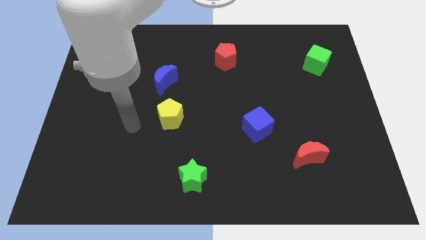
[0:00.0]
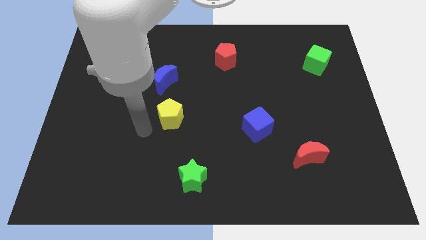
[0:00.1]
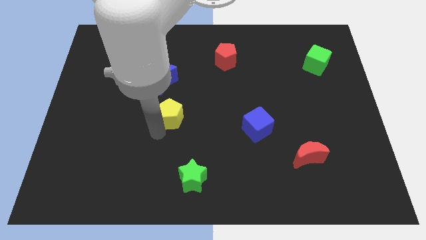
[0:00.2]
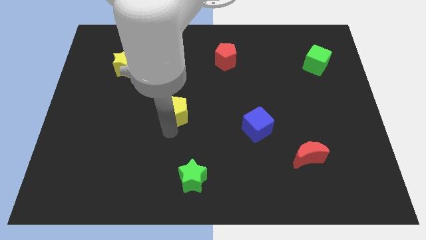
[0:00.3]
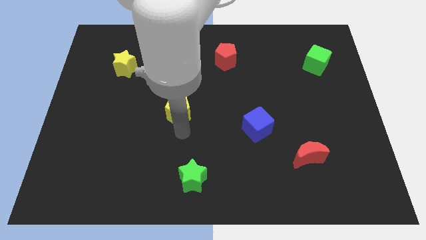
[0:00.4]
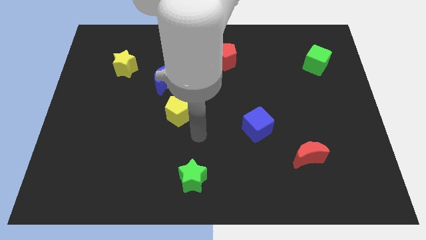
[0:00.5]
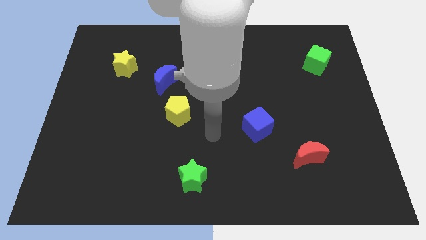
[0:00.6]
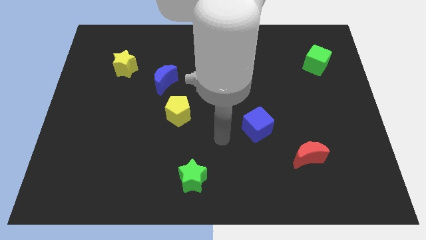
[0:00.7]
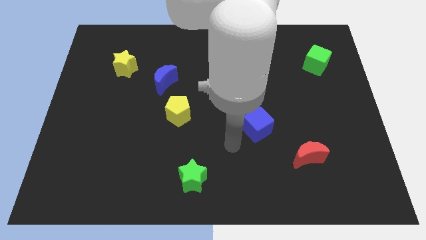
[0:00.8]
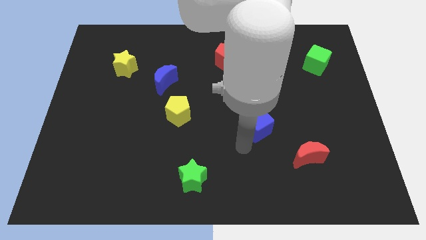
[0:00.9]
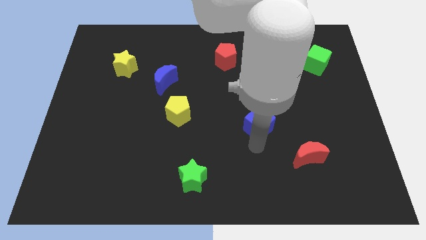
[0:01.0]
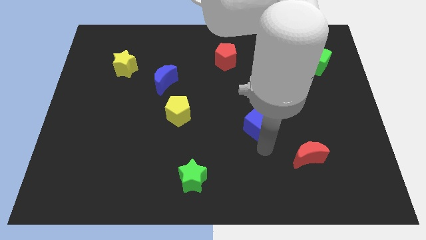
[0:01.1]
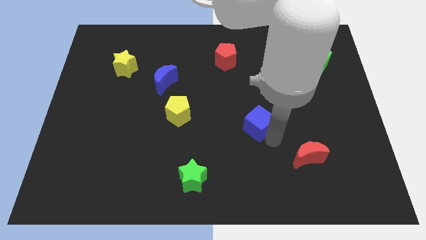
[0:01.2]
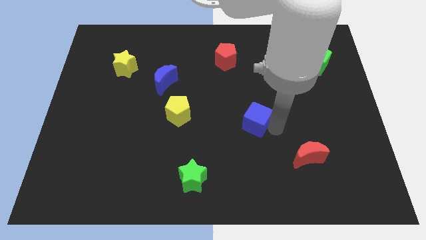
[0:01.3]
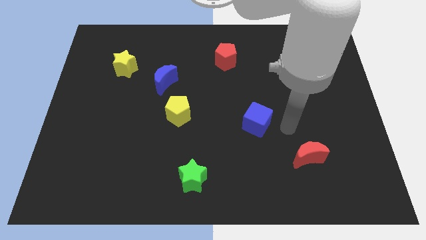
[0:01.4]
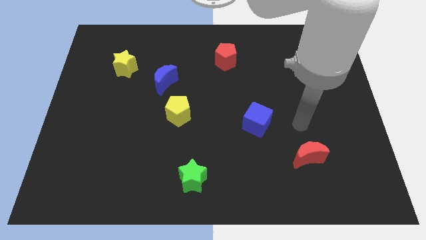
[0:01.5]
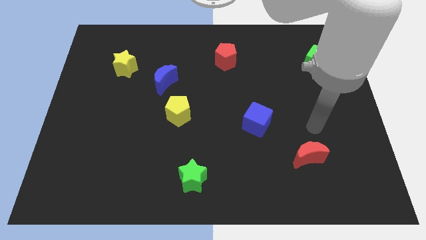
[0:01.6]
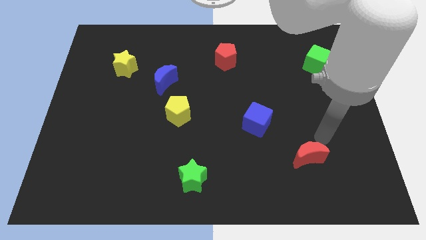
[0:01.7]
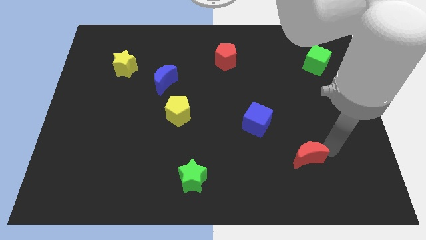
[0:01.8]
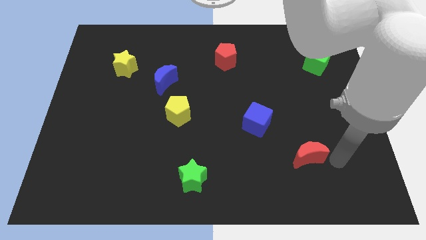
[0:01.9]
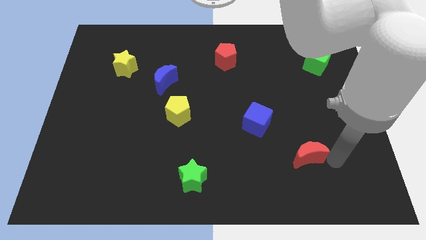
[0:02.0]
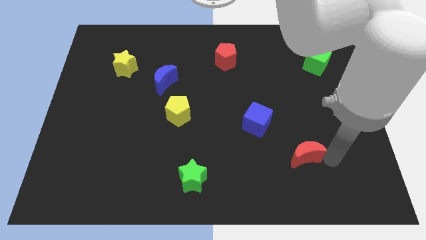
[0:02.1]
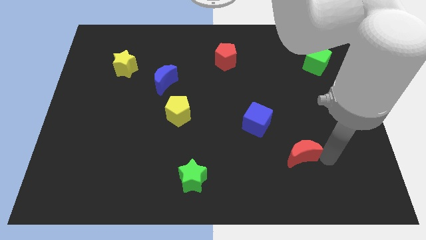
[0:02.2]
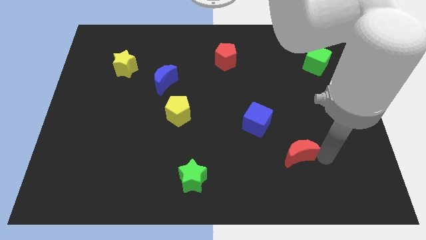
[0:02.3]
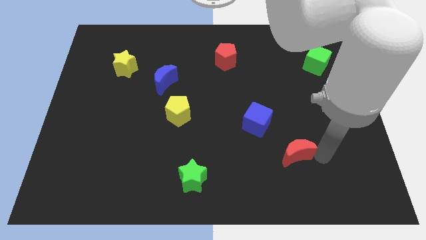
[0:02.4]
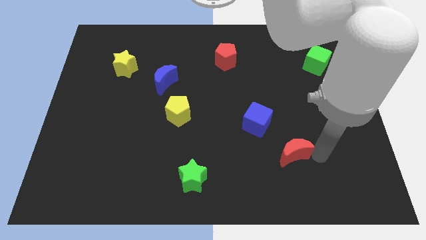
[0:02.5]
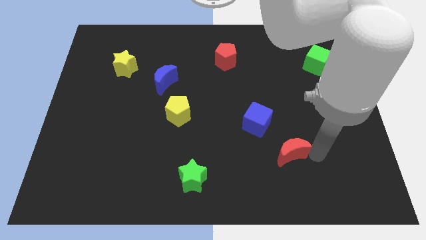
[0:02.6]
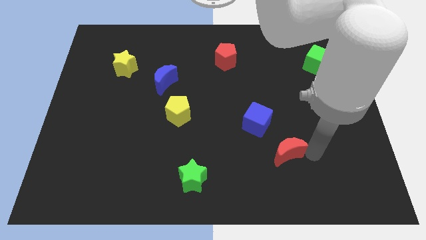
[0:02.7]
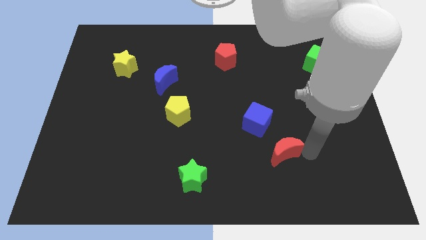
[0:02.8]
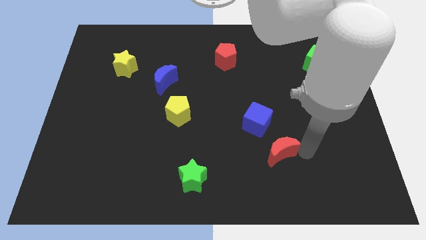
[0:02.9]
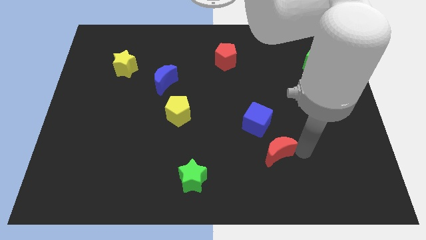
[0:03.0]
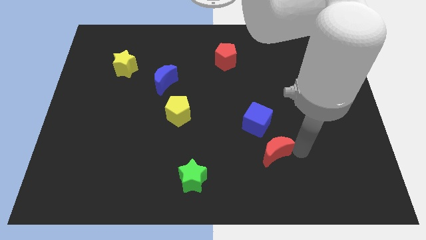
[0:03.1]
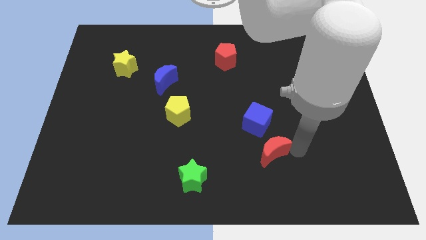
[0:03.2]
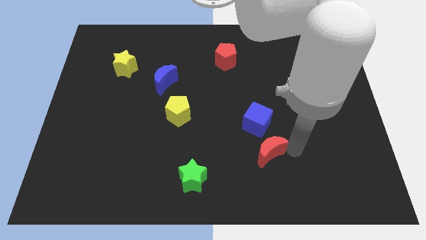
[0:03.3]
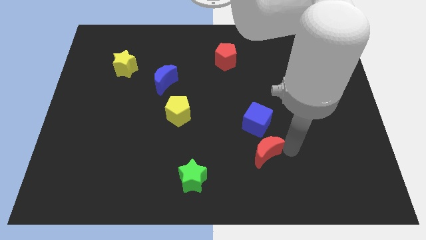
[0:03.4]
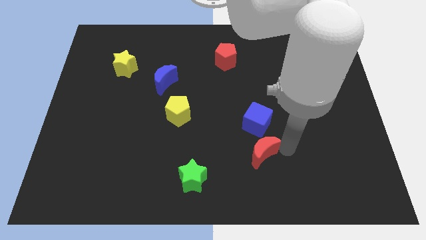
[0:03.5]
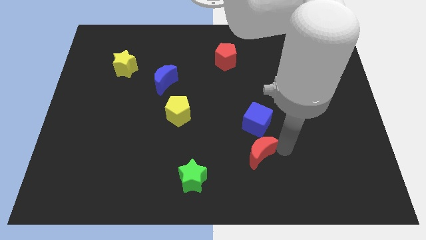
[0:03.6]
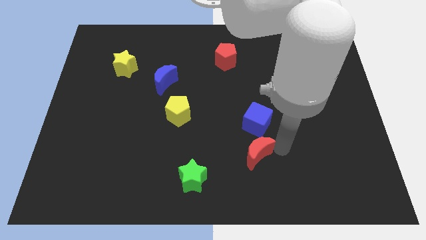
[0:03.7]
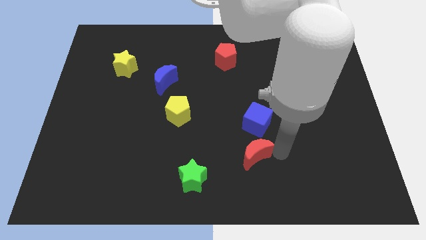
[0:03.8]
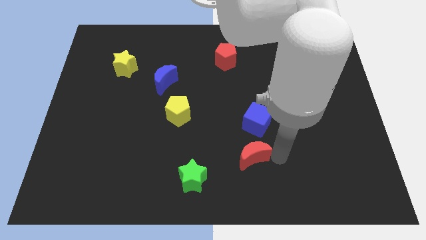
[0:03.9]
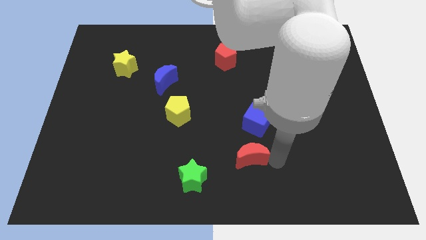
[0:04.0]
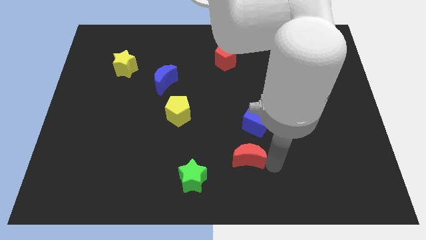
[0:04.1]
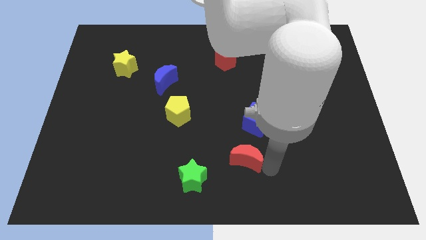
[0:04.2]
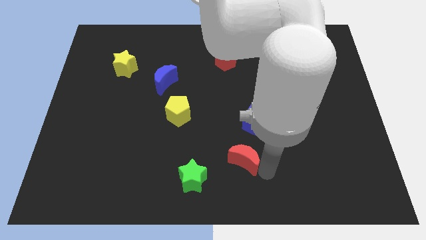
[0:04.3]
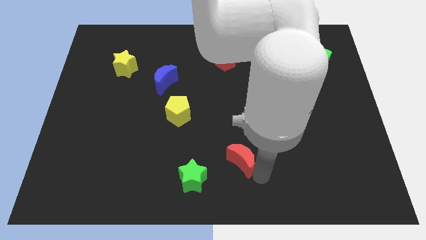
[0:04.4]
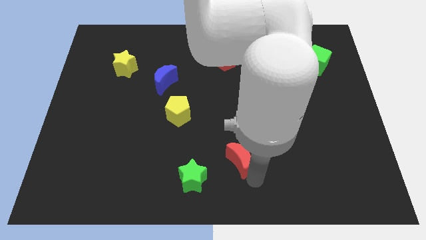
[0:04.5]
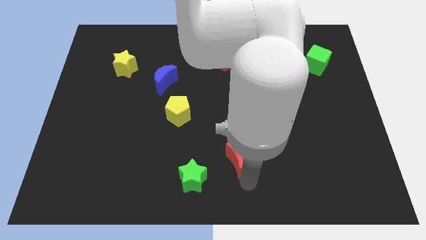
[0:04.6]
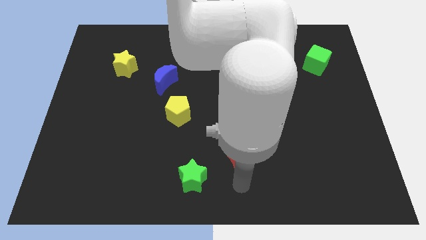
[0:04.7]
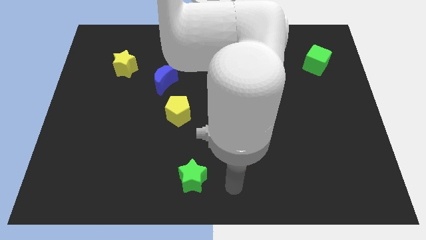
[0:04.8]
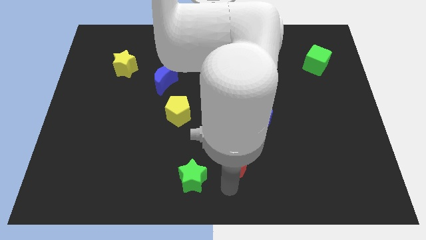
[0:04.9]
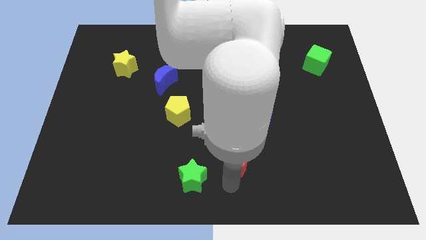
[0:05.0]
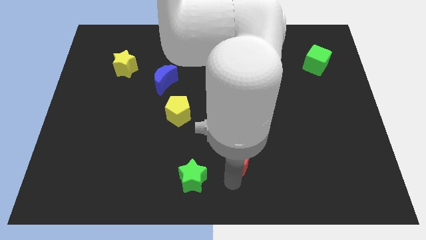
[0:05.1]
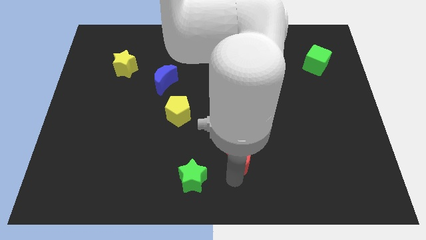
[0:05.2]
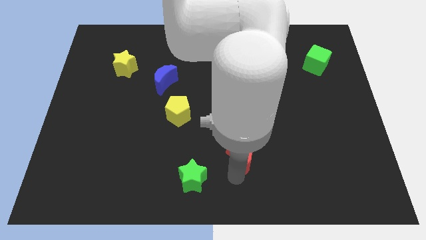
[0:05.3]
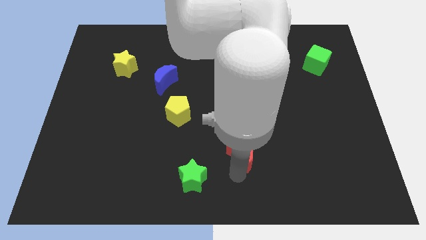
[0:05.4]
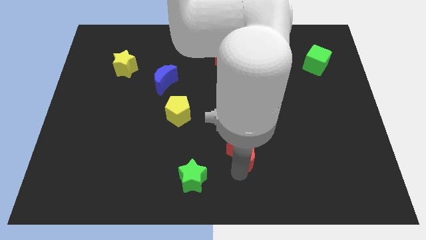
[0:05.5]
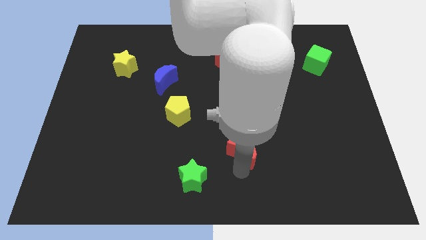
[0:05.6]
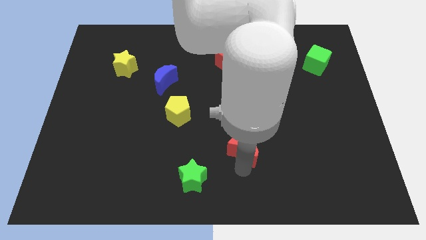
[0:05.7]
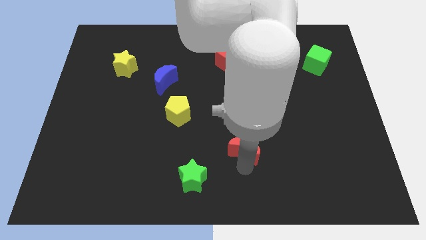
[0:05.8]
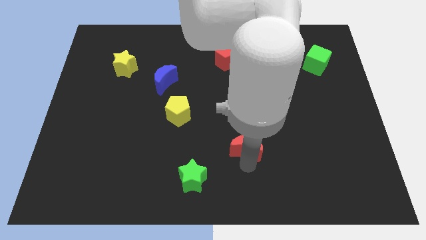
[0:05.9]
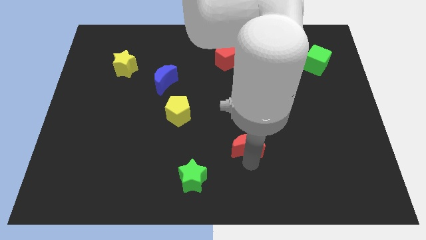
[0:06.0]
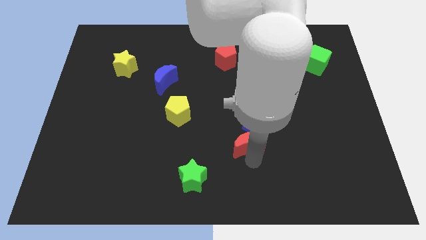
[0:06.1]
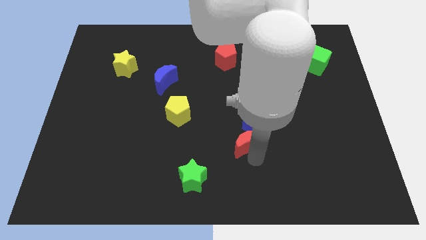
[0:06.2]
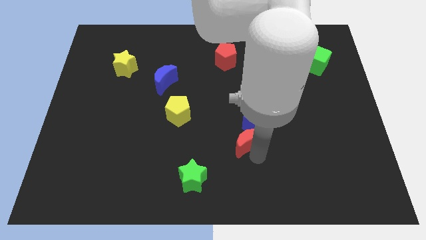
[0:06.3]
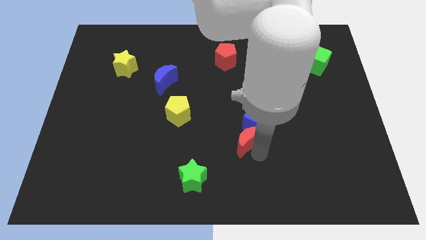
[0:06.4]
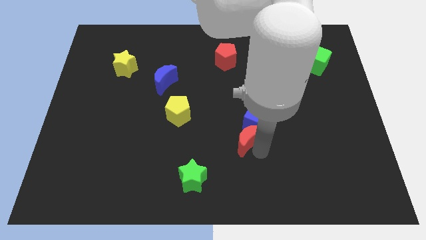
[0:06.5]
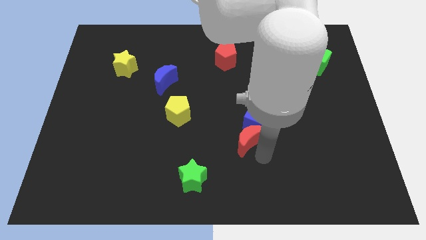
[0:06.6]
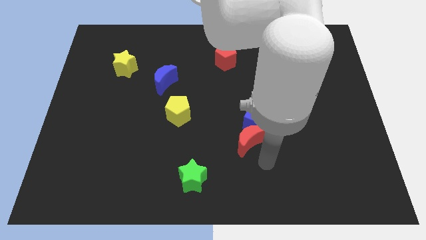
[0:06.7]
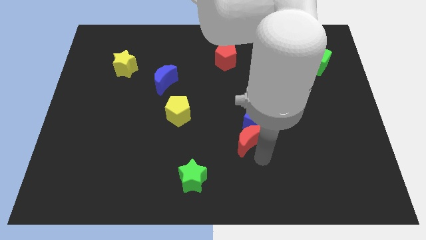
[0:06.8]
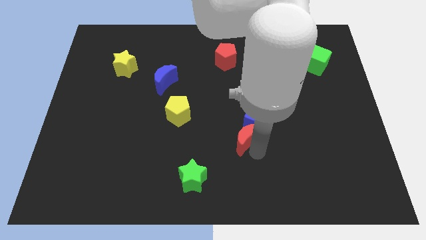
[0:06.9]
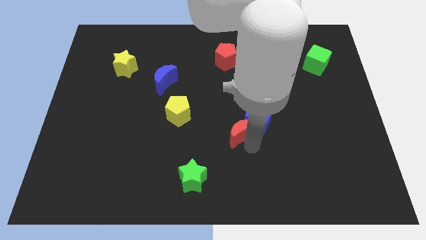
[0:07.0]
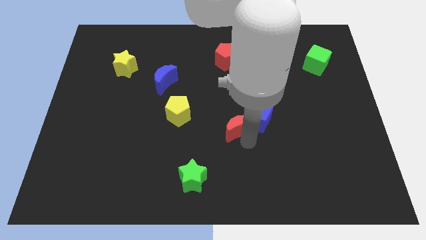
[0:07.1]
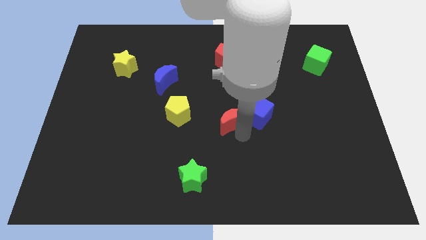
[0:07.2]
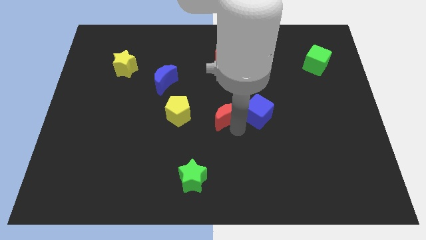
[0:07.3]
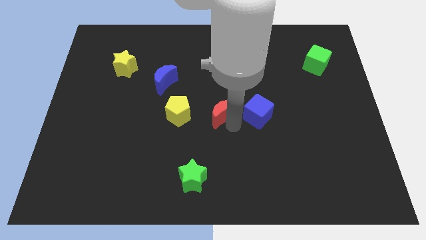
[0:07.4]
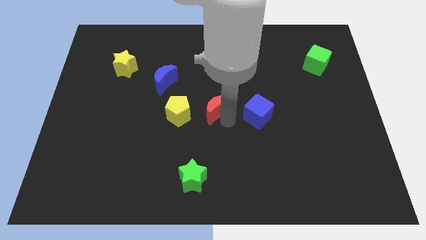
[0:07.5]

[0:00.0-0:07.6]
slide the red moon up and then left

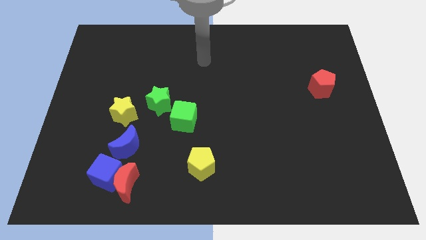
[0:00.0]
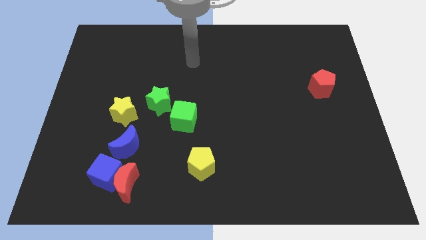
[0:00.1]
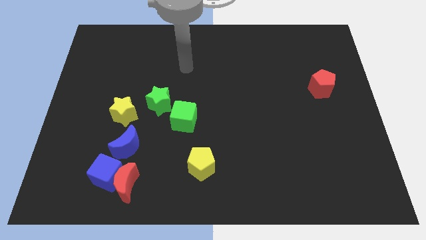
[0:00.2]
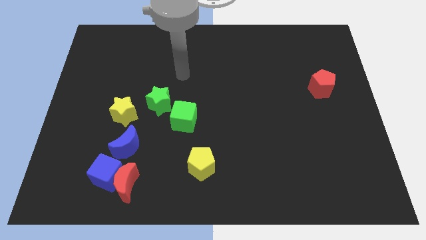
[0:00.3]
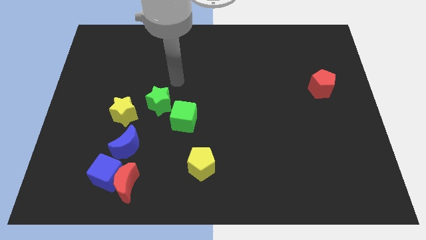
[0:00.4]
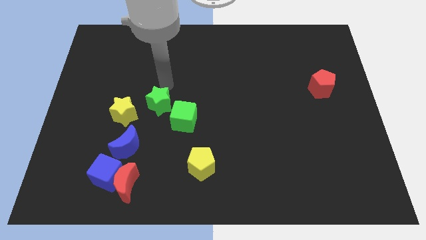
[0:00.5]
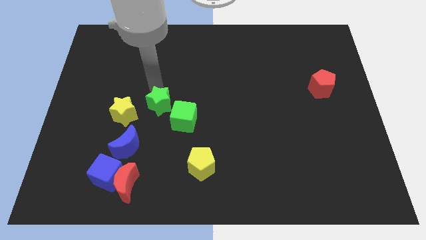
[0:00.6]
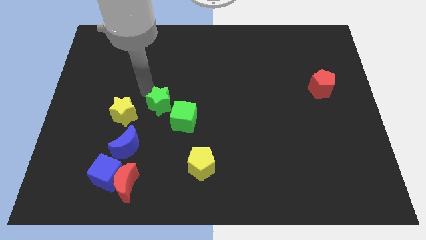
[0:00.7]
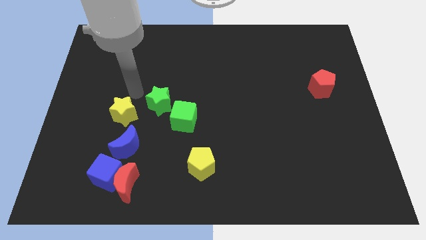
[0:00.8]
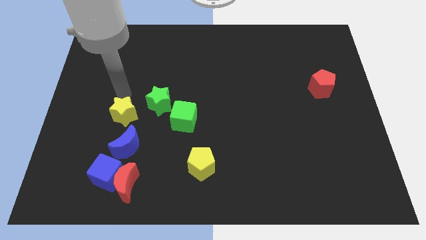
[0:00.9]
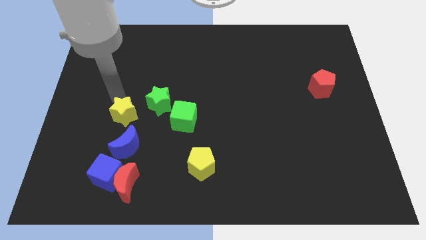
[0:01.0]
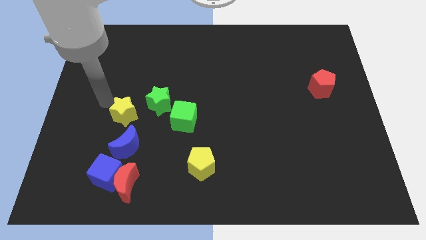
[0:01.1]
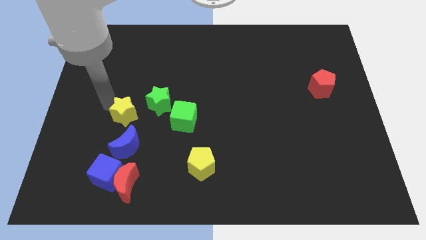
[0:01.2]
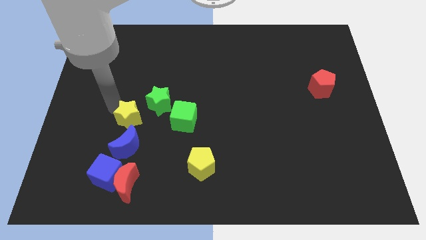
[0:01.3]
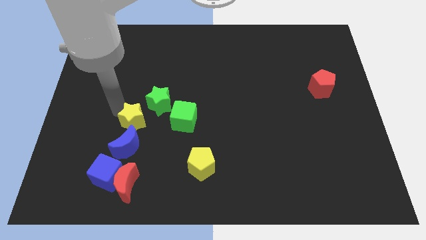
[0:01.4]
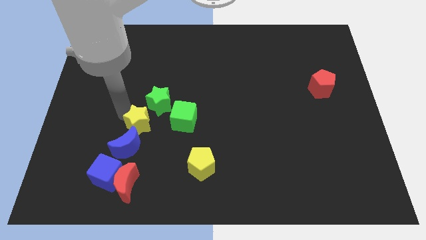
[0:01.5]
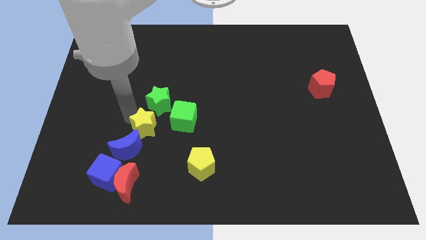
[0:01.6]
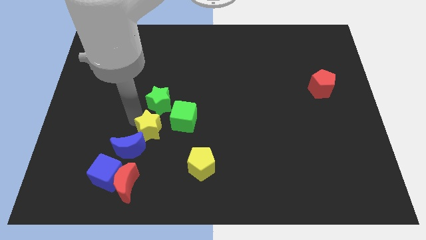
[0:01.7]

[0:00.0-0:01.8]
slide the yellow star a little diagonally downwards and right
